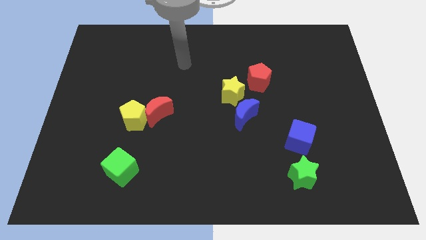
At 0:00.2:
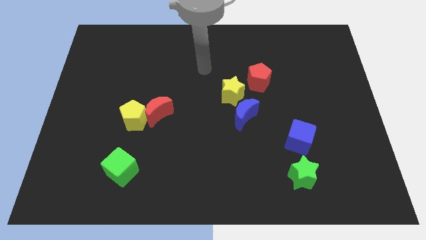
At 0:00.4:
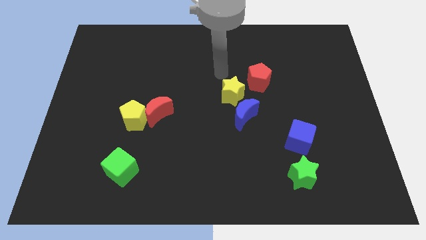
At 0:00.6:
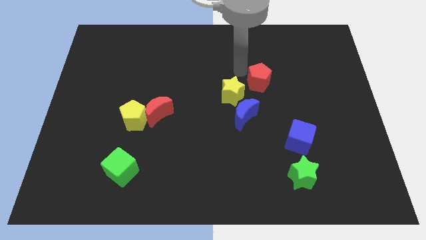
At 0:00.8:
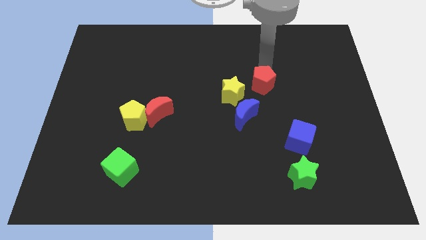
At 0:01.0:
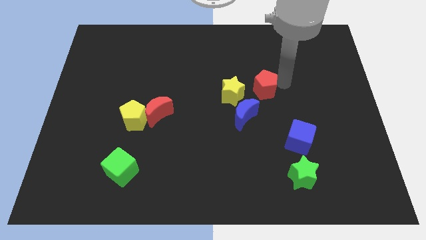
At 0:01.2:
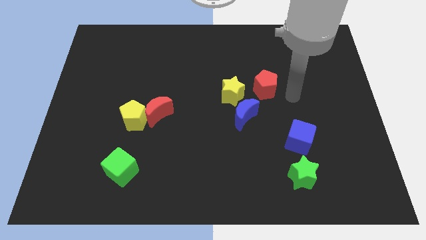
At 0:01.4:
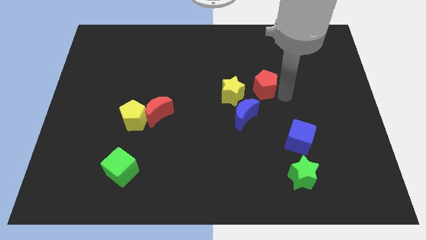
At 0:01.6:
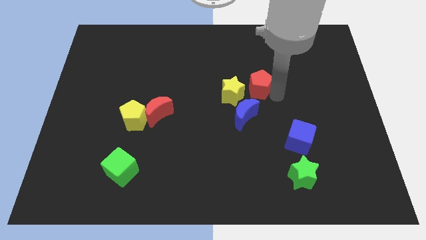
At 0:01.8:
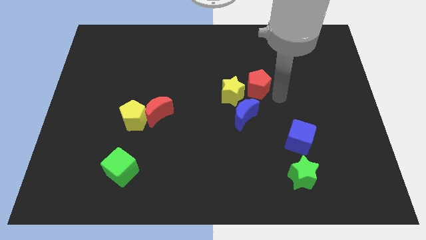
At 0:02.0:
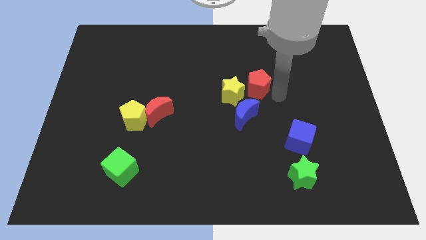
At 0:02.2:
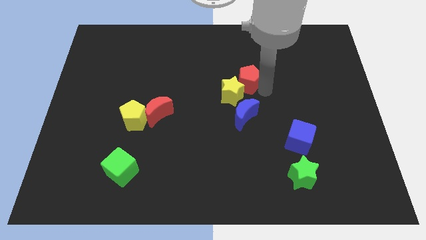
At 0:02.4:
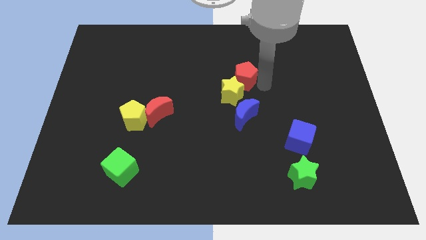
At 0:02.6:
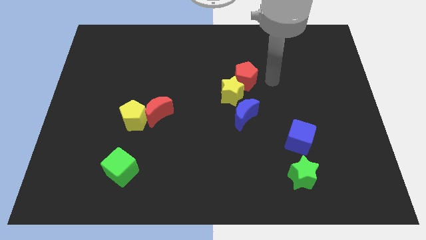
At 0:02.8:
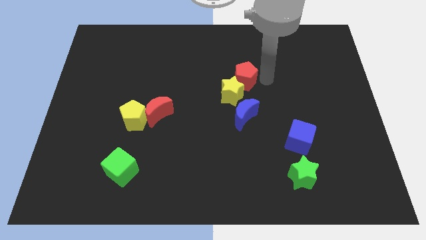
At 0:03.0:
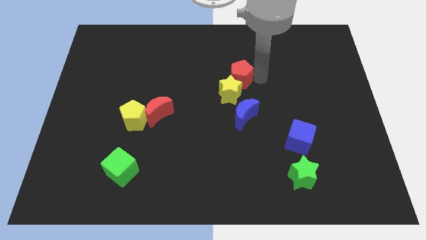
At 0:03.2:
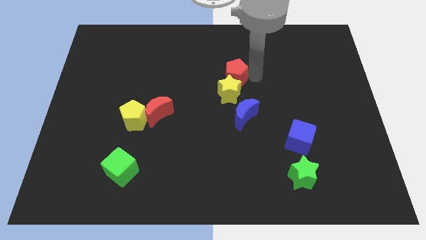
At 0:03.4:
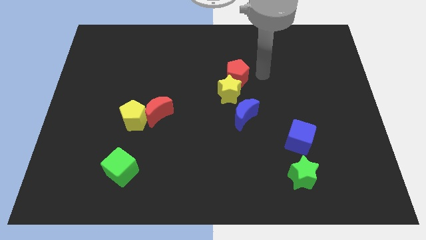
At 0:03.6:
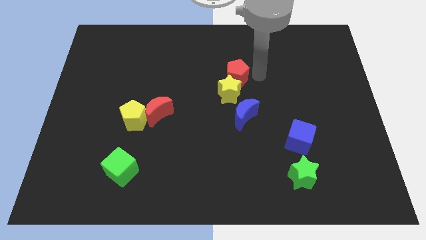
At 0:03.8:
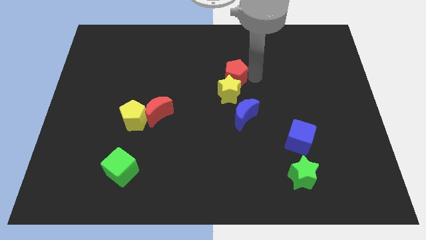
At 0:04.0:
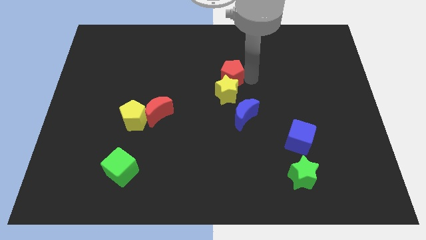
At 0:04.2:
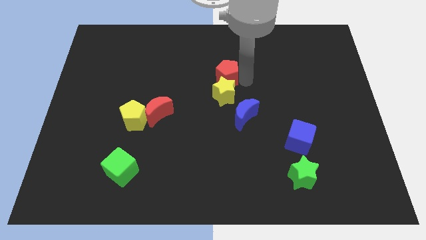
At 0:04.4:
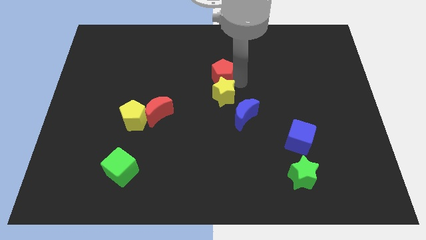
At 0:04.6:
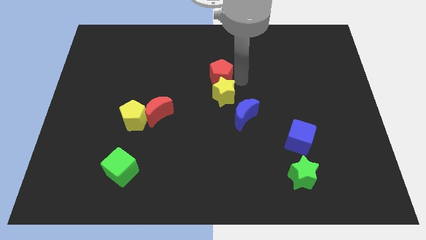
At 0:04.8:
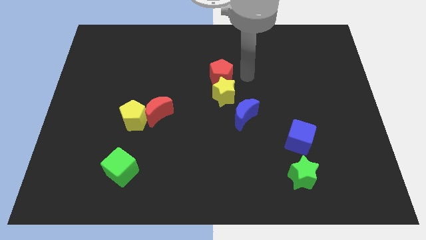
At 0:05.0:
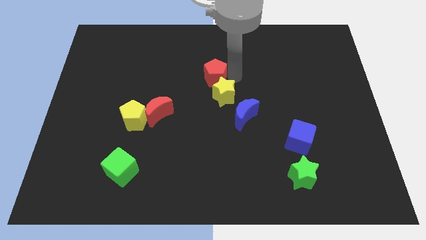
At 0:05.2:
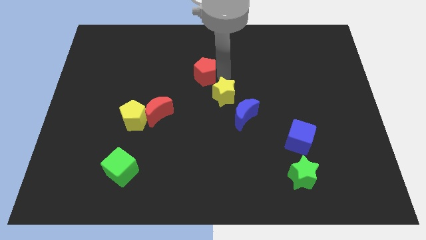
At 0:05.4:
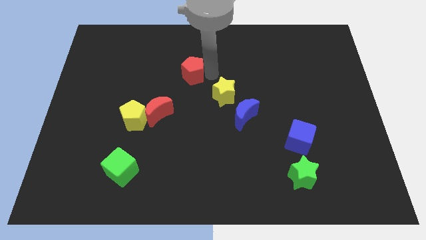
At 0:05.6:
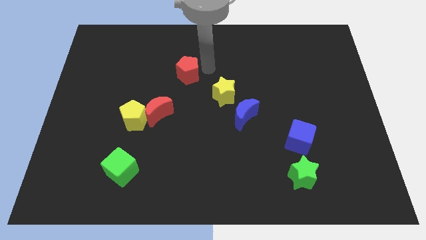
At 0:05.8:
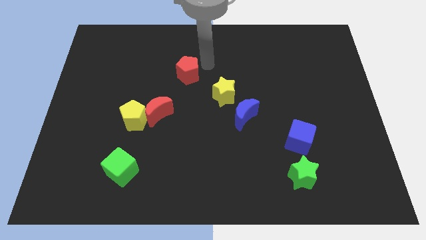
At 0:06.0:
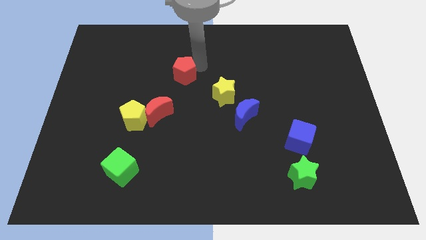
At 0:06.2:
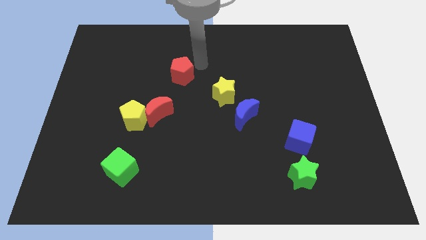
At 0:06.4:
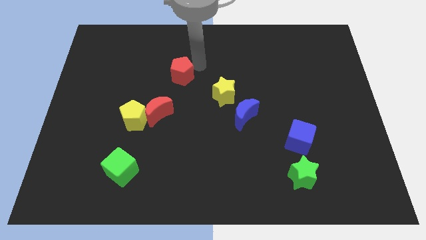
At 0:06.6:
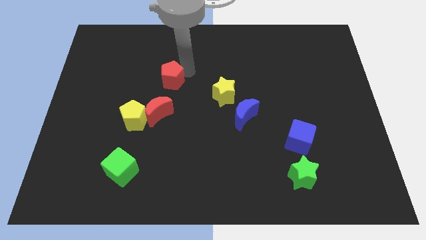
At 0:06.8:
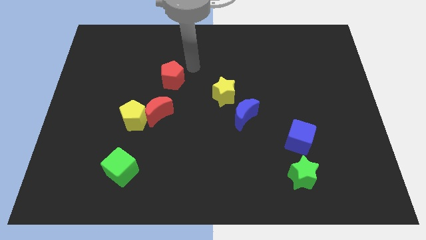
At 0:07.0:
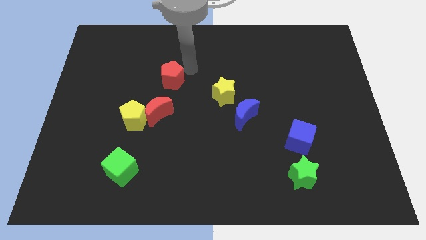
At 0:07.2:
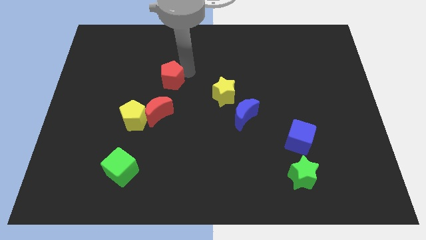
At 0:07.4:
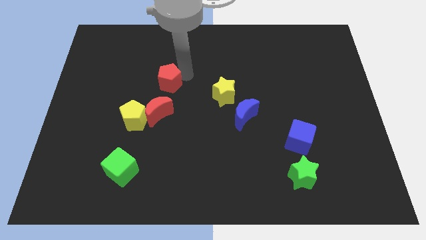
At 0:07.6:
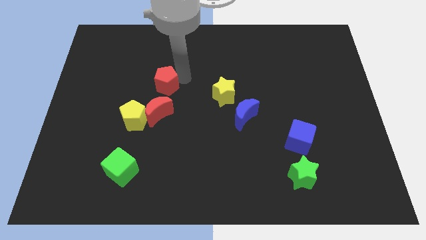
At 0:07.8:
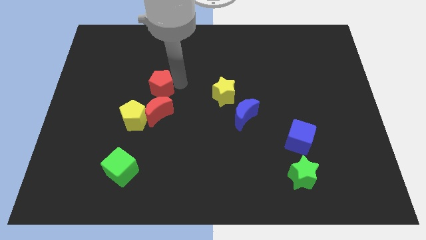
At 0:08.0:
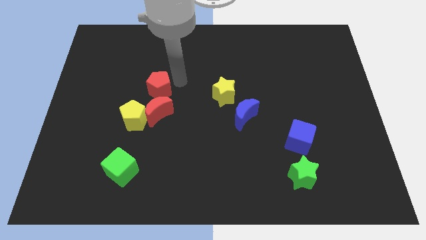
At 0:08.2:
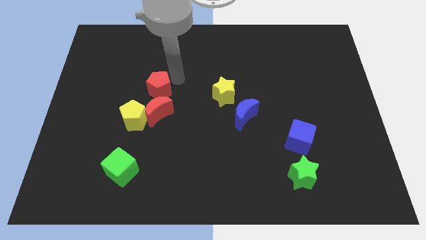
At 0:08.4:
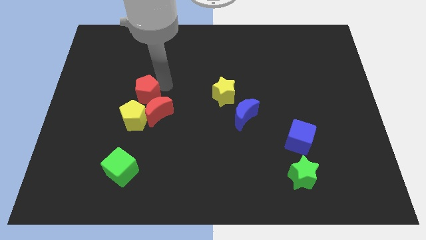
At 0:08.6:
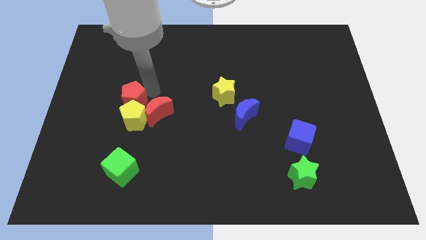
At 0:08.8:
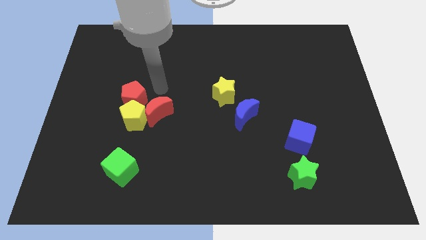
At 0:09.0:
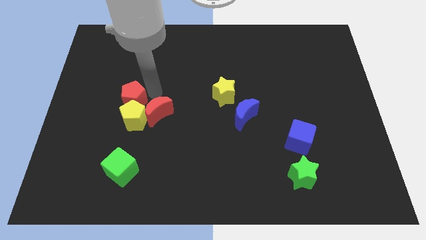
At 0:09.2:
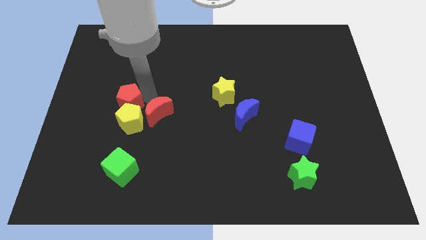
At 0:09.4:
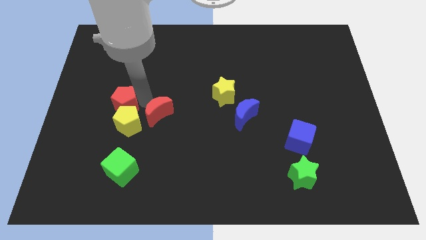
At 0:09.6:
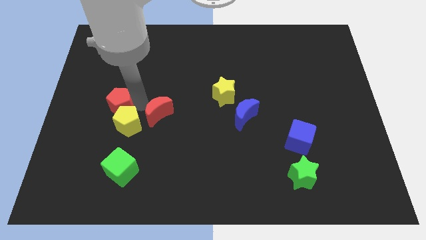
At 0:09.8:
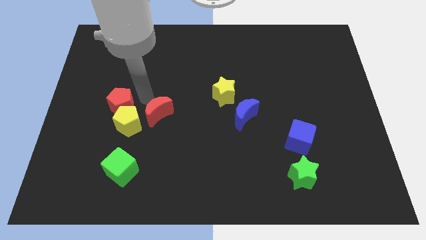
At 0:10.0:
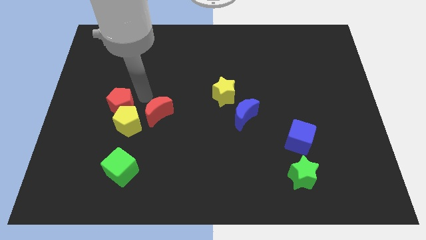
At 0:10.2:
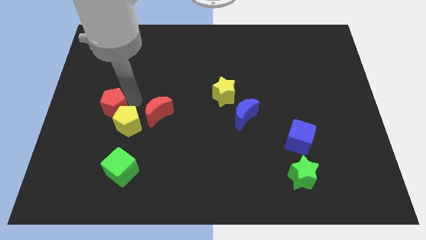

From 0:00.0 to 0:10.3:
put the red pentagon to the left side of the yellow pentagon

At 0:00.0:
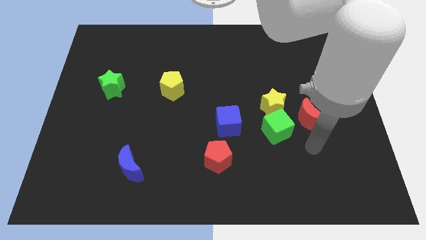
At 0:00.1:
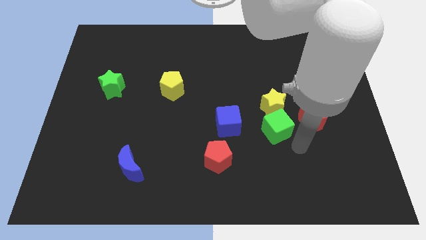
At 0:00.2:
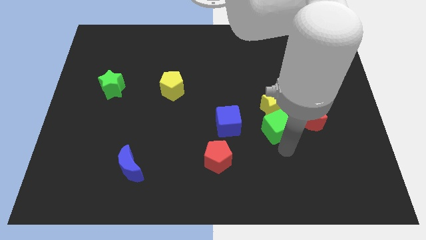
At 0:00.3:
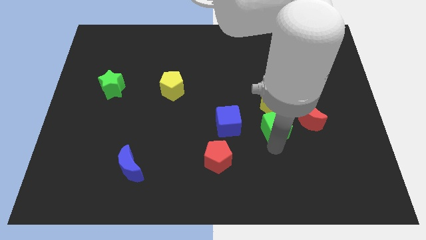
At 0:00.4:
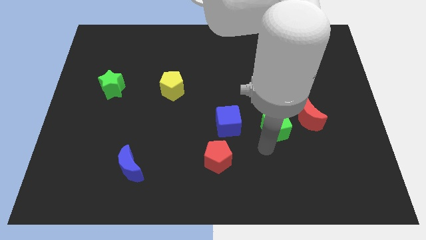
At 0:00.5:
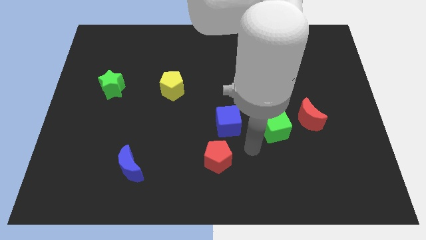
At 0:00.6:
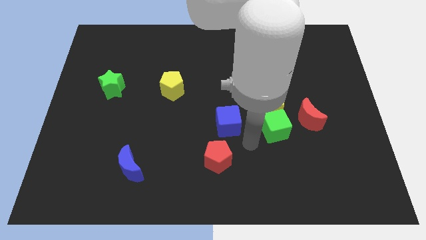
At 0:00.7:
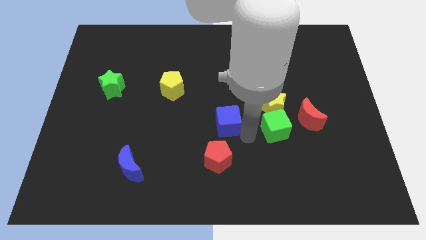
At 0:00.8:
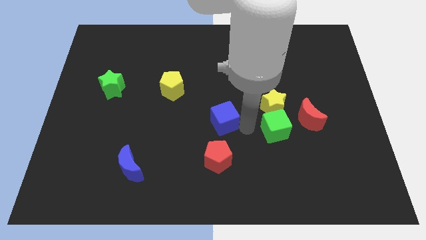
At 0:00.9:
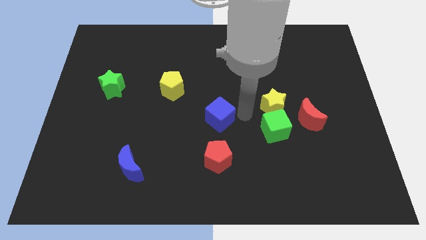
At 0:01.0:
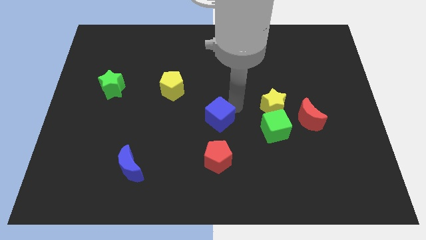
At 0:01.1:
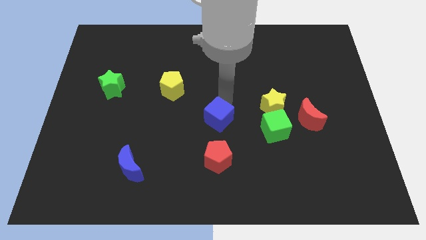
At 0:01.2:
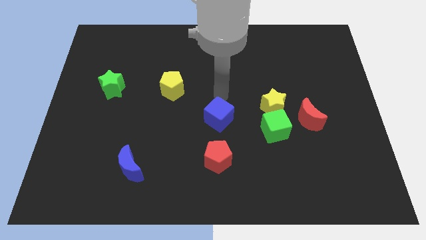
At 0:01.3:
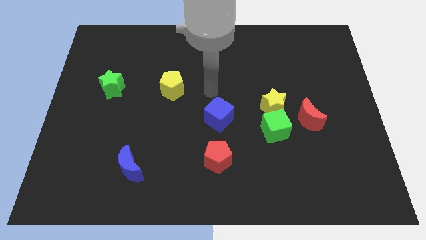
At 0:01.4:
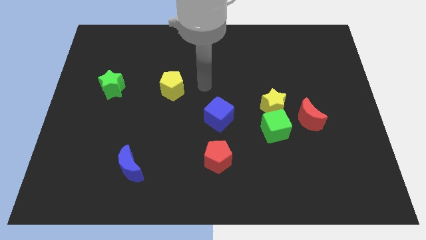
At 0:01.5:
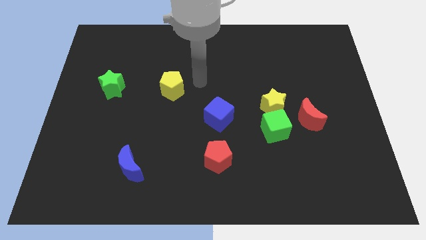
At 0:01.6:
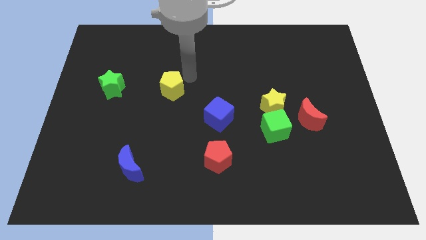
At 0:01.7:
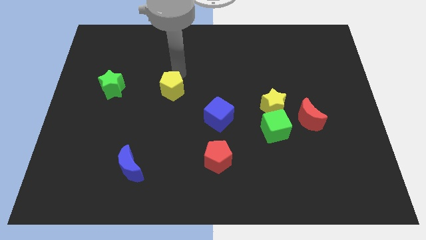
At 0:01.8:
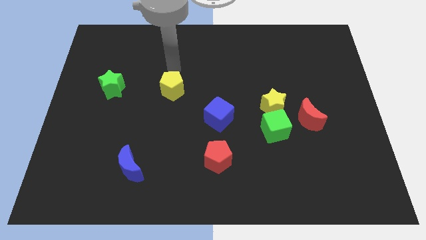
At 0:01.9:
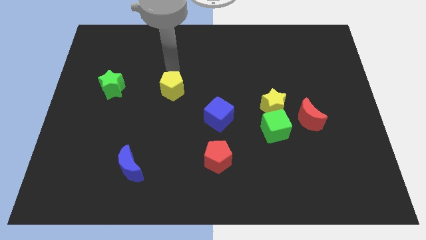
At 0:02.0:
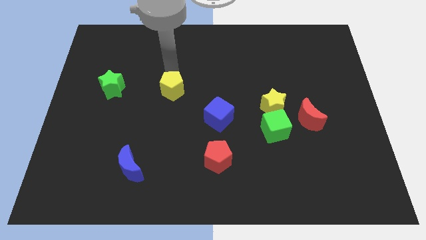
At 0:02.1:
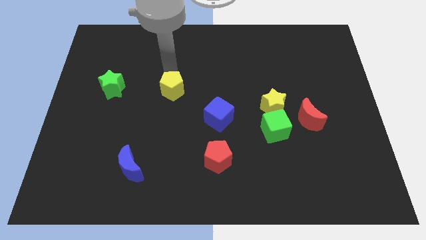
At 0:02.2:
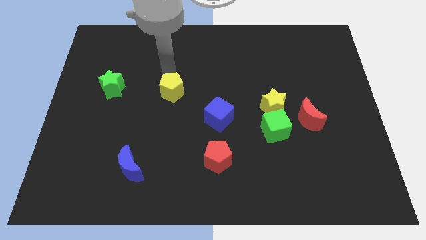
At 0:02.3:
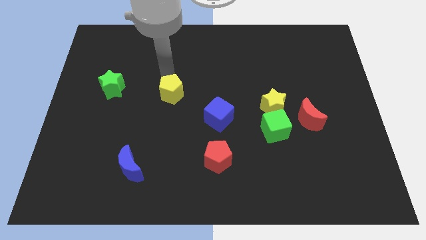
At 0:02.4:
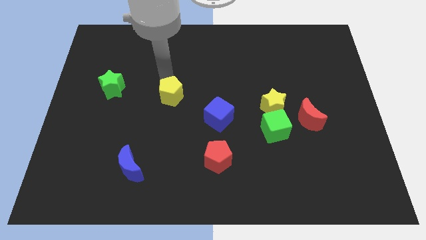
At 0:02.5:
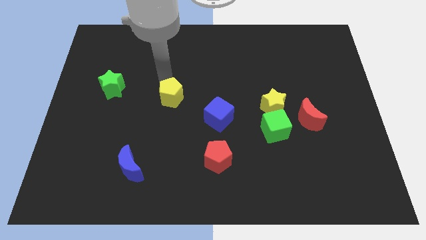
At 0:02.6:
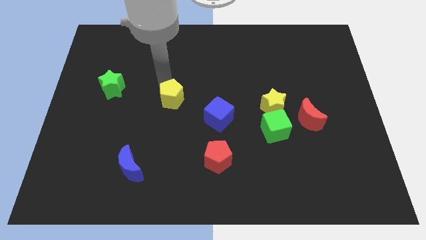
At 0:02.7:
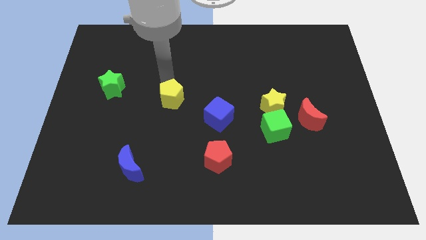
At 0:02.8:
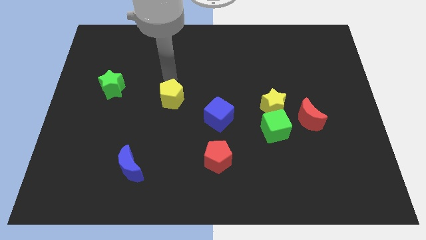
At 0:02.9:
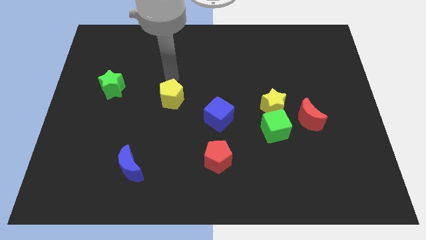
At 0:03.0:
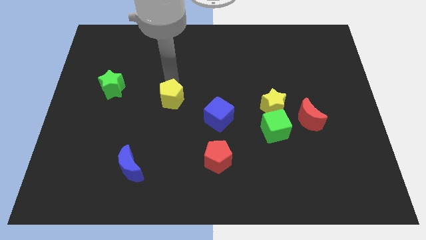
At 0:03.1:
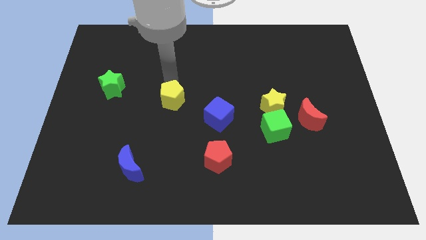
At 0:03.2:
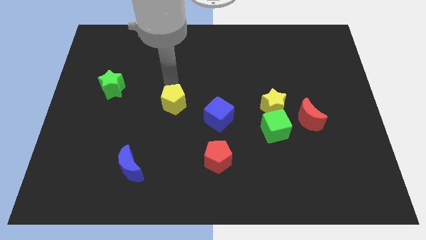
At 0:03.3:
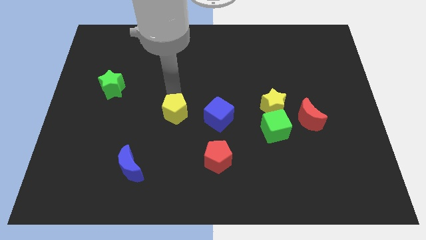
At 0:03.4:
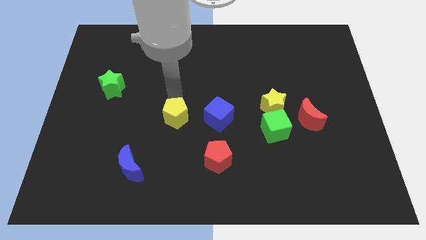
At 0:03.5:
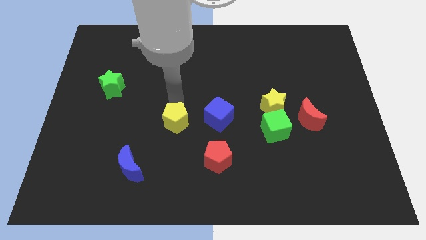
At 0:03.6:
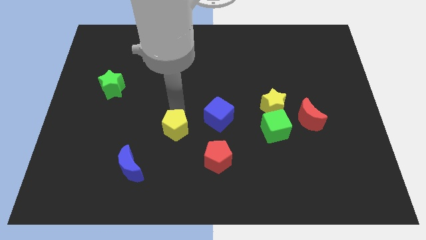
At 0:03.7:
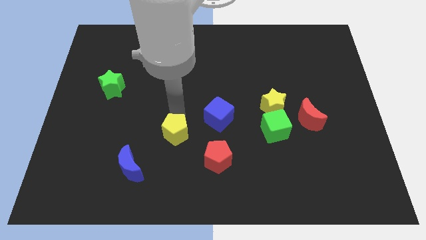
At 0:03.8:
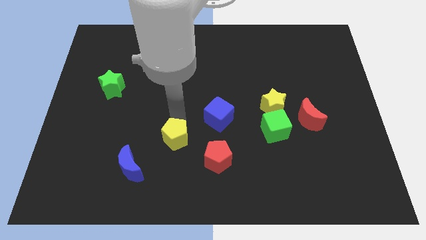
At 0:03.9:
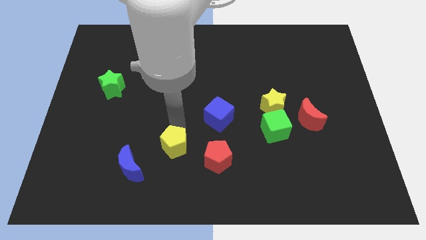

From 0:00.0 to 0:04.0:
put the yellow pentagon to the left side of the red pentagon
